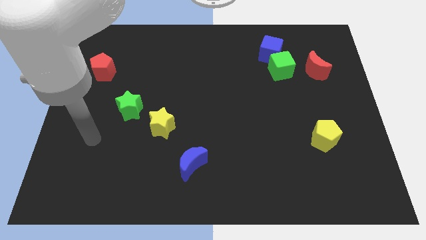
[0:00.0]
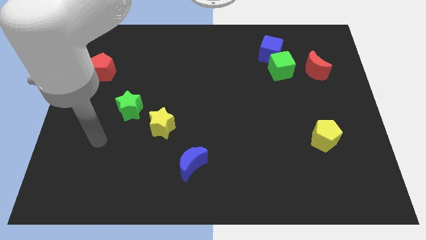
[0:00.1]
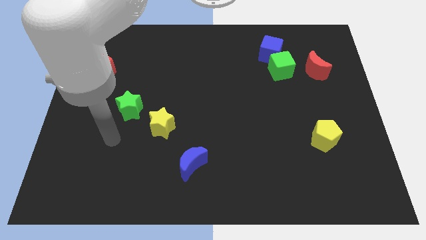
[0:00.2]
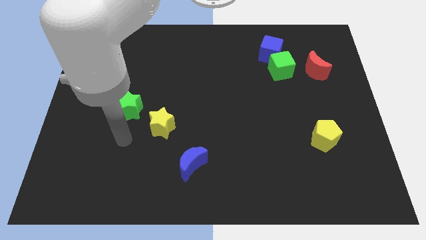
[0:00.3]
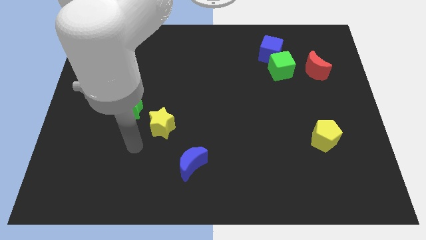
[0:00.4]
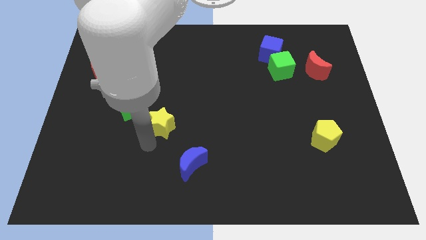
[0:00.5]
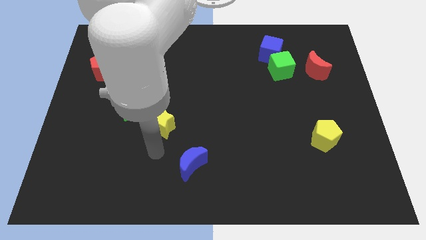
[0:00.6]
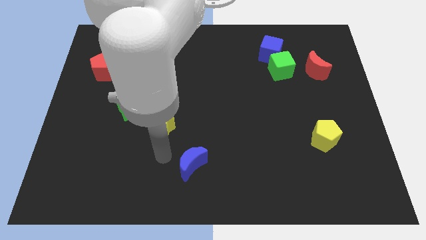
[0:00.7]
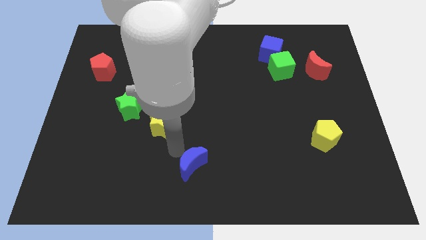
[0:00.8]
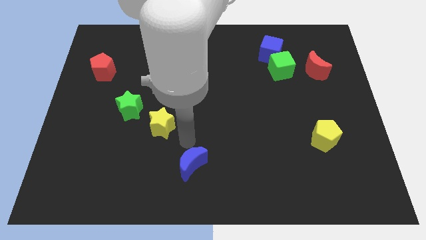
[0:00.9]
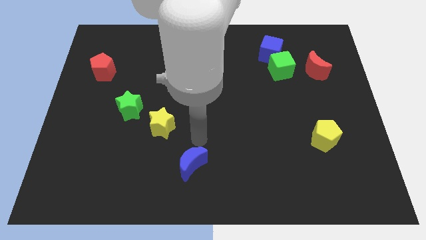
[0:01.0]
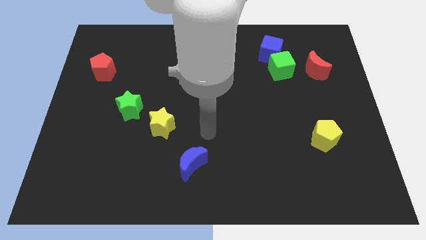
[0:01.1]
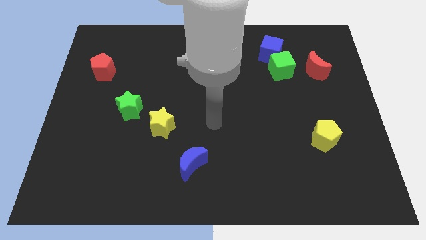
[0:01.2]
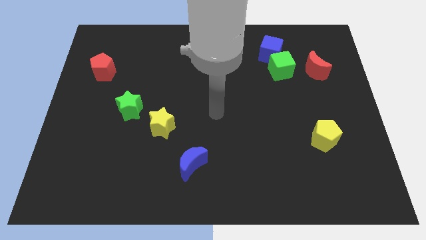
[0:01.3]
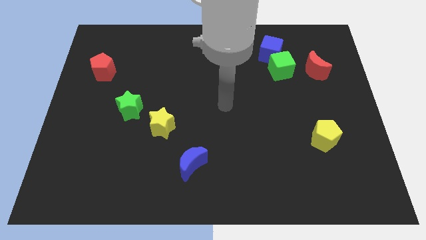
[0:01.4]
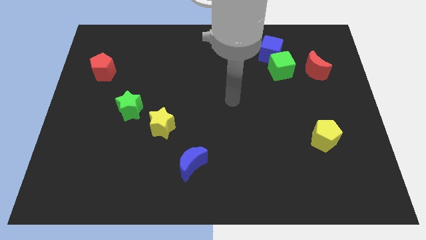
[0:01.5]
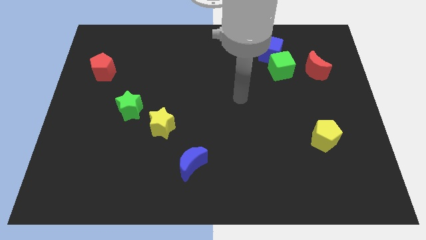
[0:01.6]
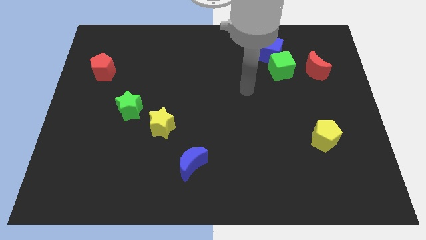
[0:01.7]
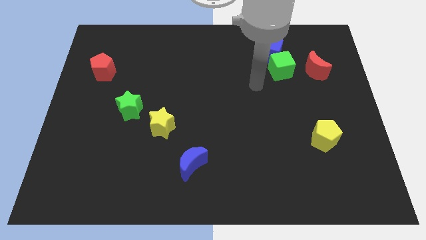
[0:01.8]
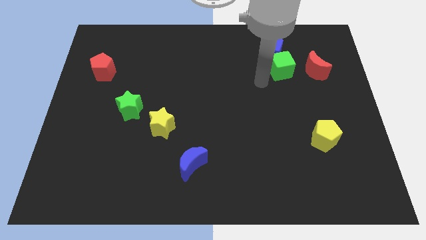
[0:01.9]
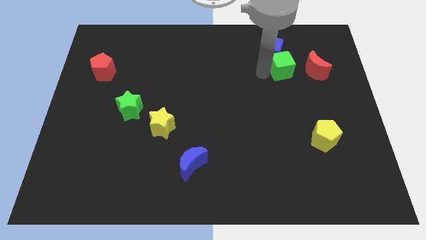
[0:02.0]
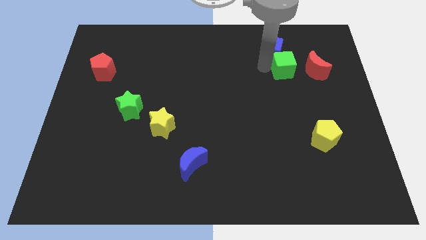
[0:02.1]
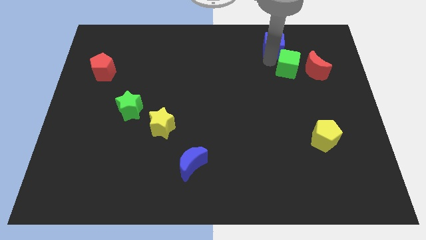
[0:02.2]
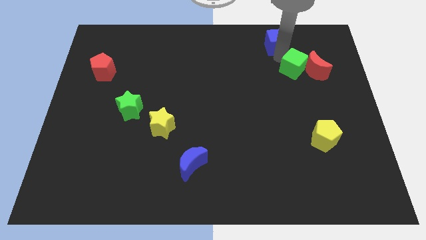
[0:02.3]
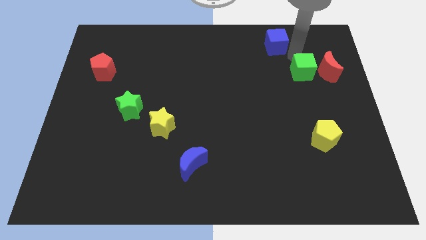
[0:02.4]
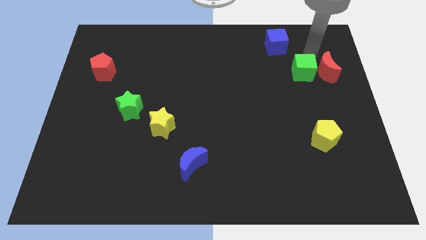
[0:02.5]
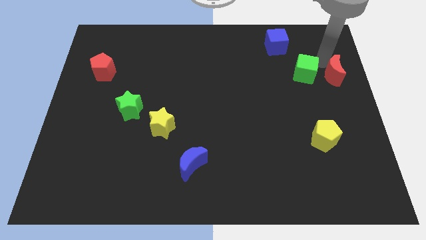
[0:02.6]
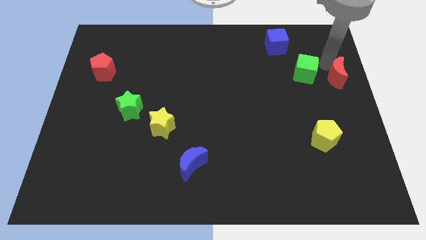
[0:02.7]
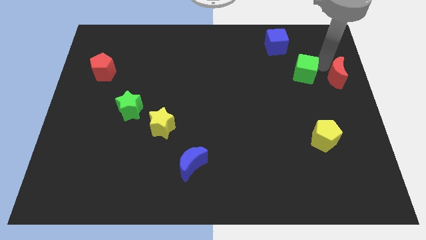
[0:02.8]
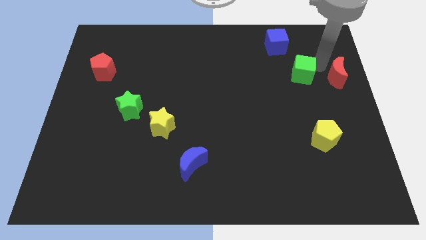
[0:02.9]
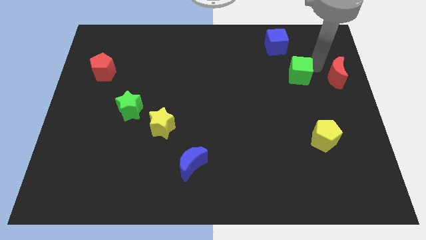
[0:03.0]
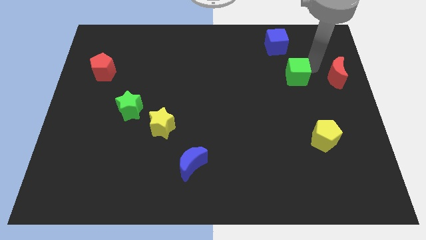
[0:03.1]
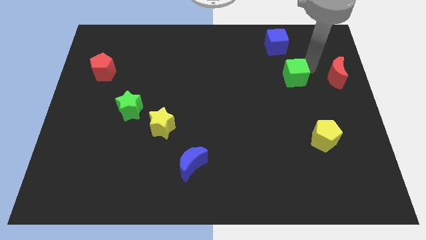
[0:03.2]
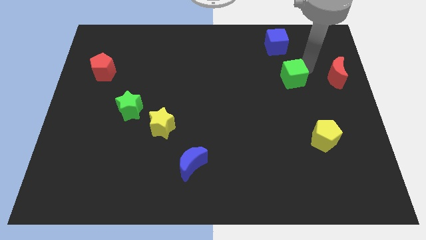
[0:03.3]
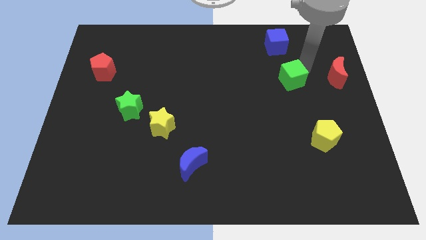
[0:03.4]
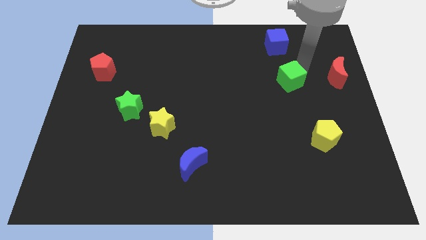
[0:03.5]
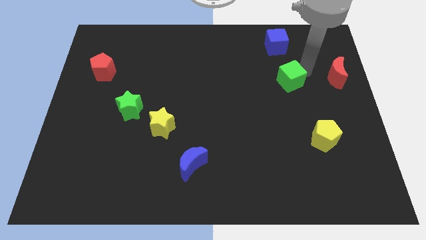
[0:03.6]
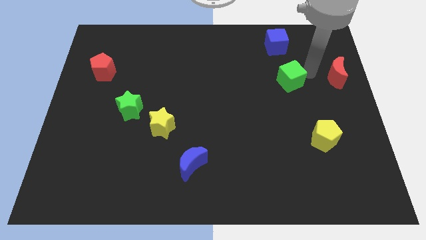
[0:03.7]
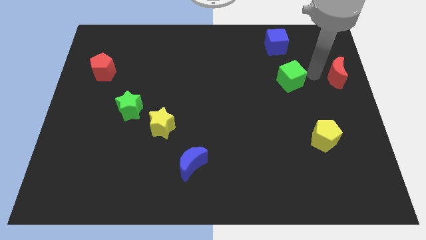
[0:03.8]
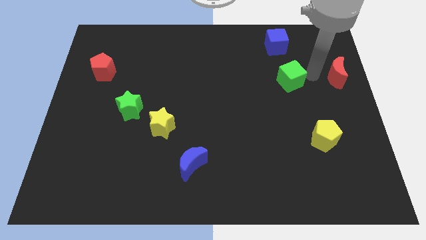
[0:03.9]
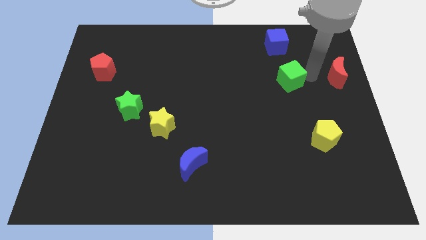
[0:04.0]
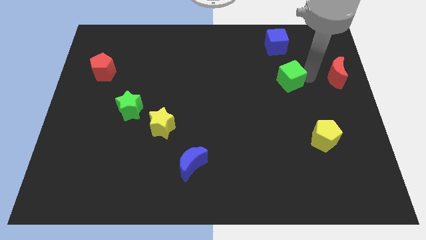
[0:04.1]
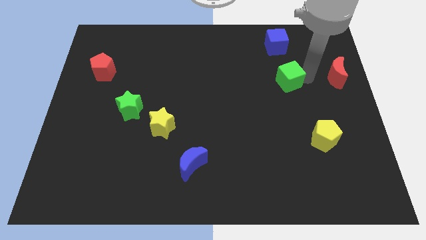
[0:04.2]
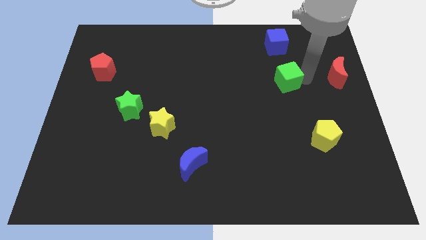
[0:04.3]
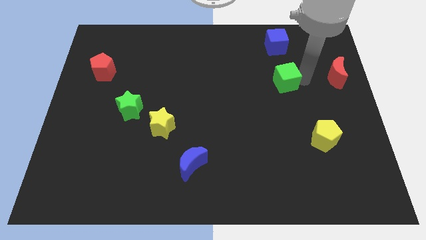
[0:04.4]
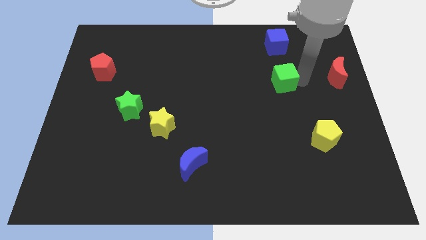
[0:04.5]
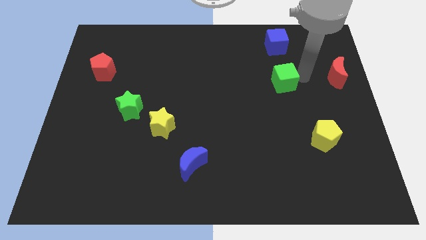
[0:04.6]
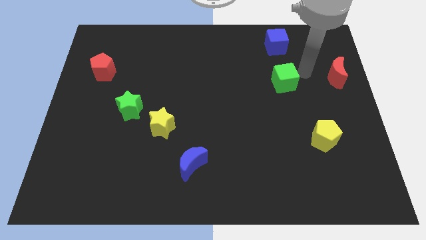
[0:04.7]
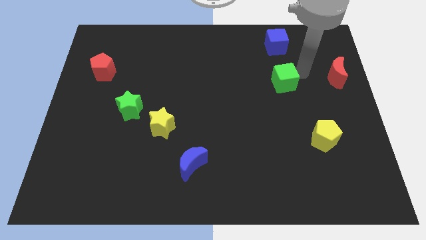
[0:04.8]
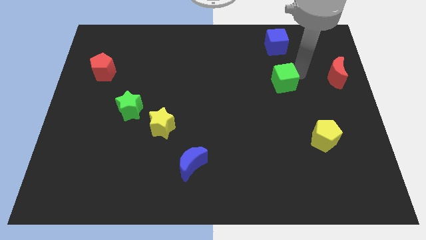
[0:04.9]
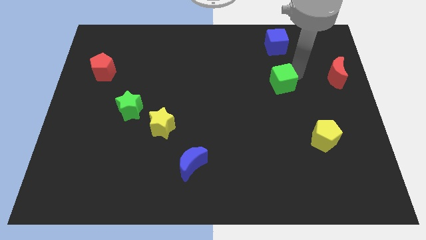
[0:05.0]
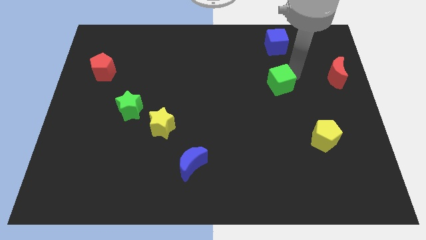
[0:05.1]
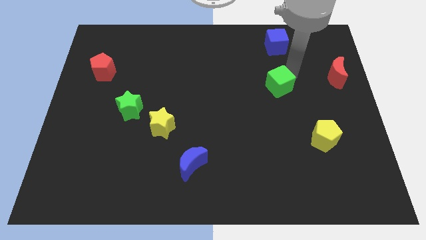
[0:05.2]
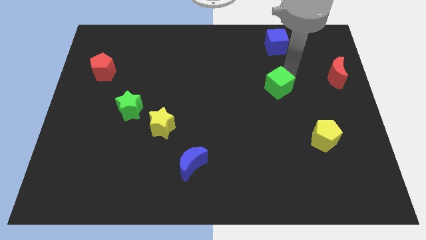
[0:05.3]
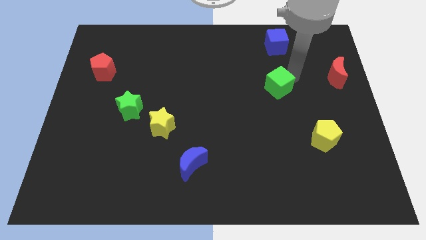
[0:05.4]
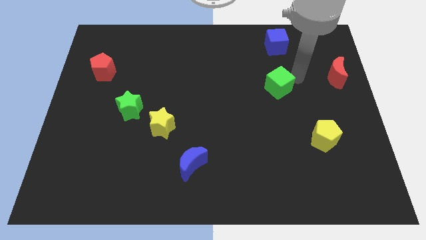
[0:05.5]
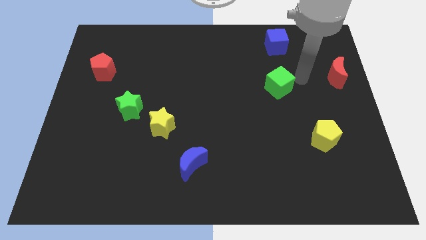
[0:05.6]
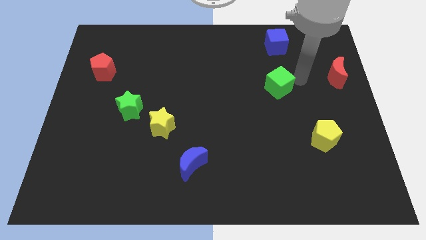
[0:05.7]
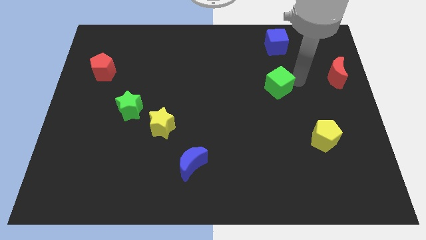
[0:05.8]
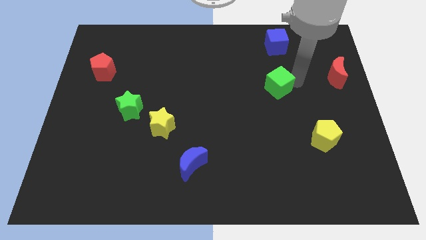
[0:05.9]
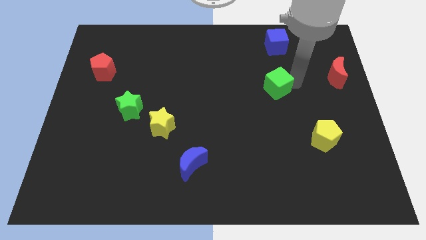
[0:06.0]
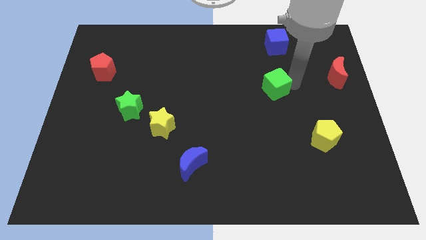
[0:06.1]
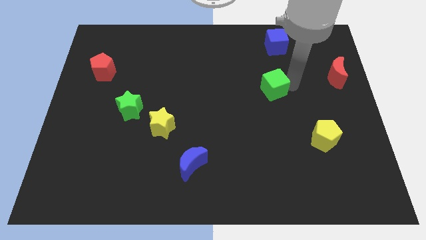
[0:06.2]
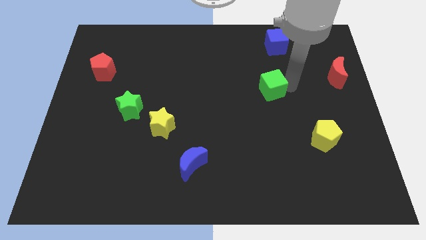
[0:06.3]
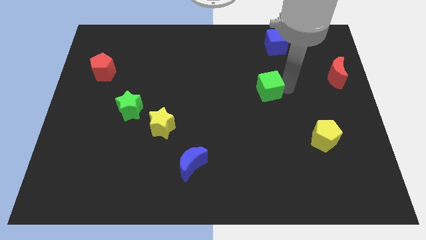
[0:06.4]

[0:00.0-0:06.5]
move the green cube a bit downwards and to the left

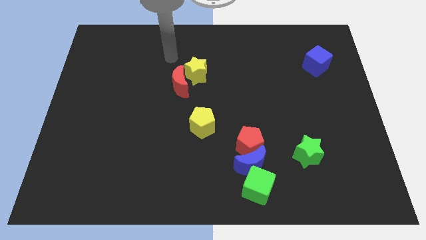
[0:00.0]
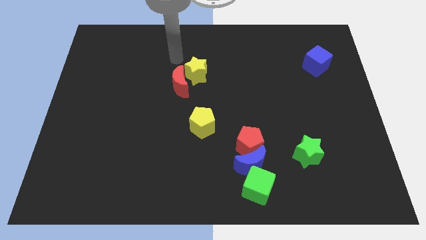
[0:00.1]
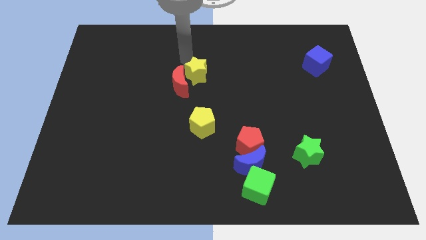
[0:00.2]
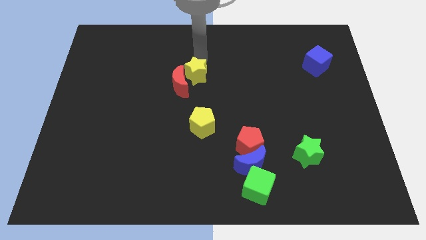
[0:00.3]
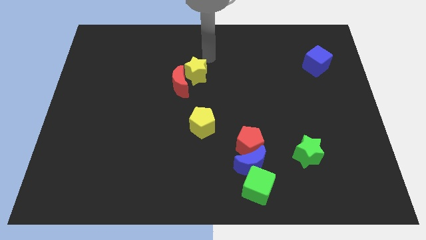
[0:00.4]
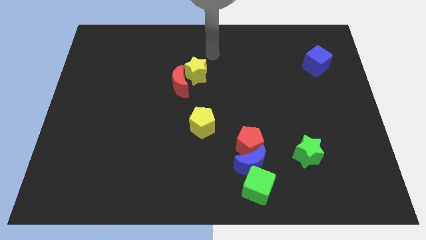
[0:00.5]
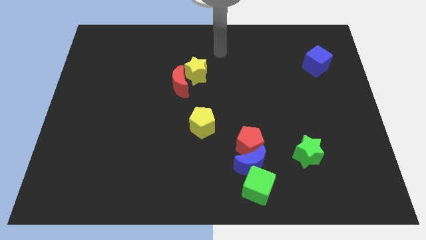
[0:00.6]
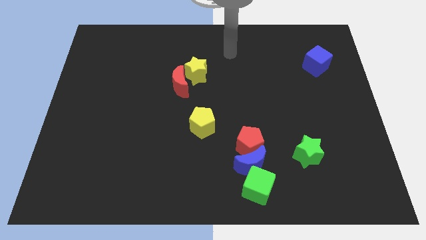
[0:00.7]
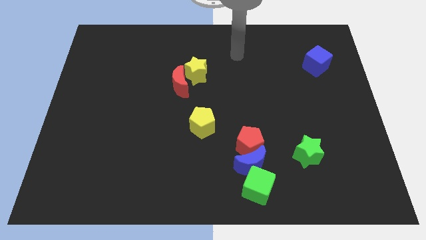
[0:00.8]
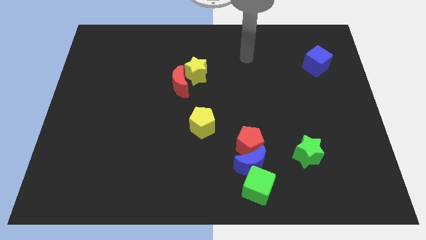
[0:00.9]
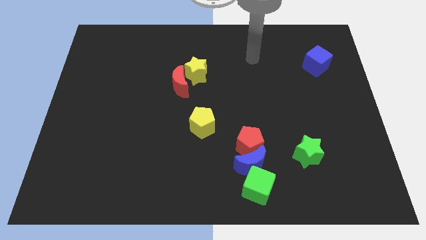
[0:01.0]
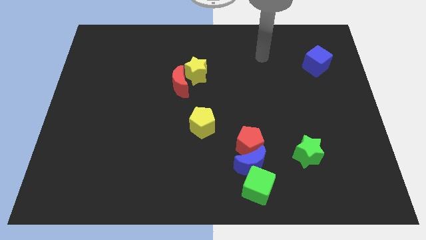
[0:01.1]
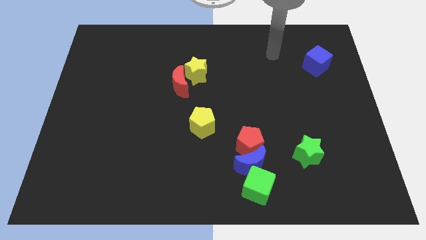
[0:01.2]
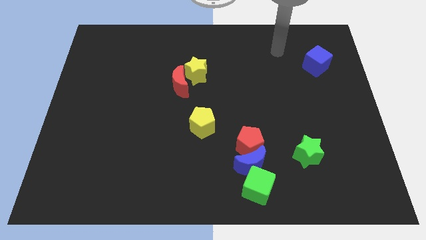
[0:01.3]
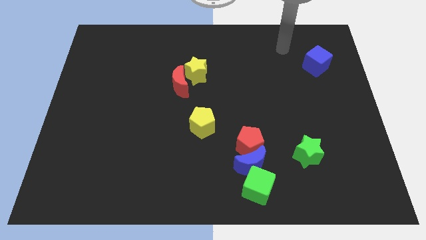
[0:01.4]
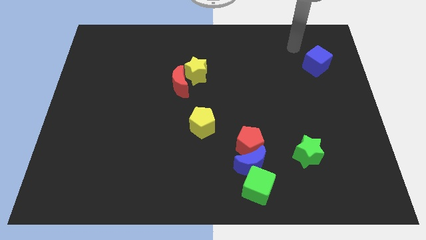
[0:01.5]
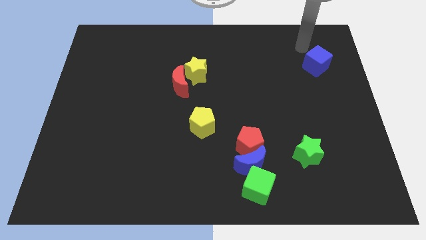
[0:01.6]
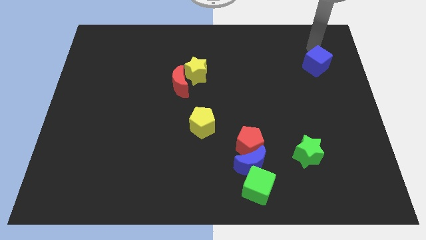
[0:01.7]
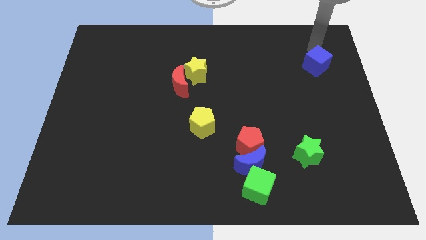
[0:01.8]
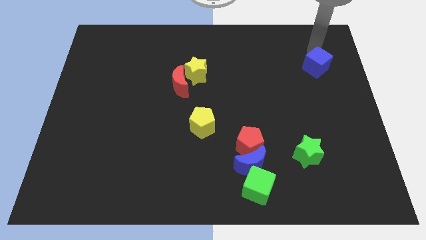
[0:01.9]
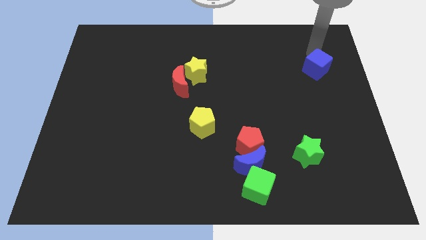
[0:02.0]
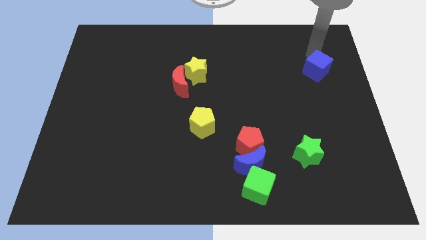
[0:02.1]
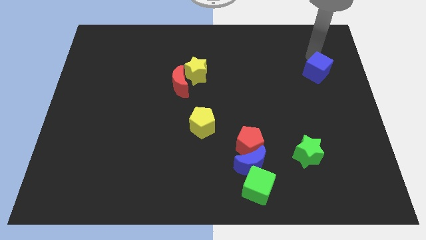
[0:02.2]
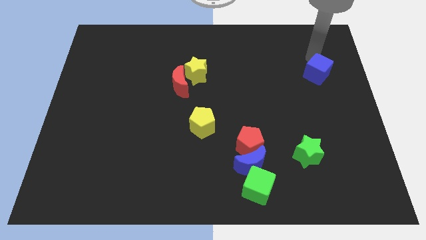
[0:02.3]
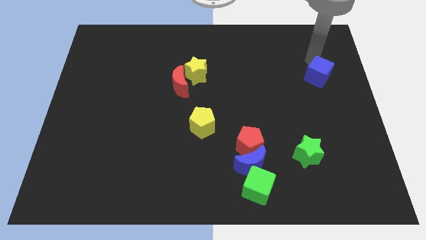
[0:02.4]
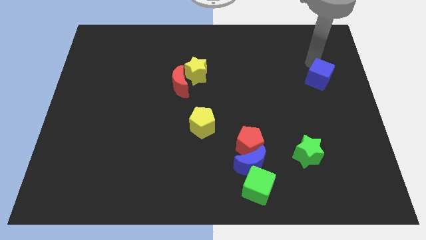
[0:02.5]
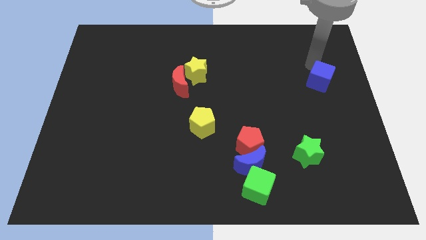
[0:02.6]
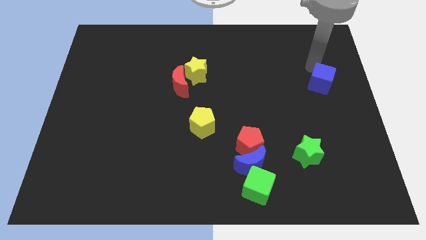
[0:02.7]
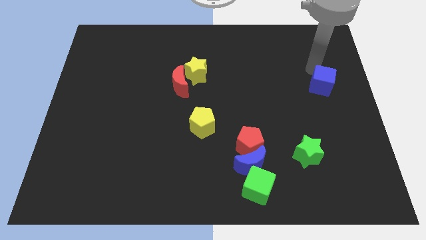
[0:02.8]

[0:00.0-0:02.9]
move the blue cube downwards slightly
